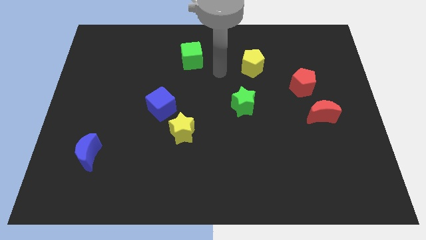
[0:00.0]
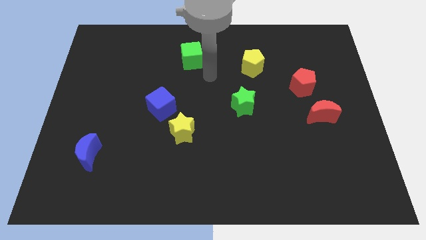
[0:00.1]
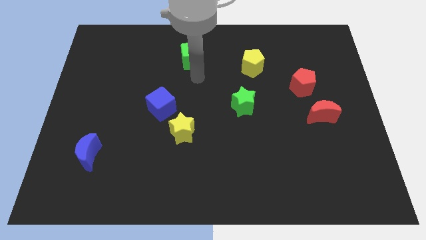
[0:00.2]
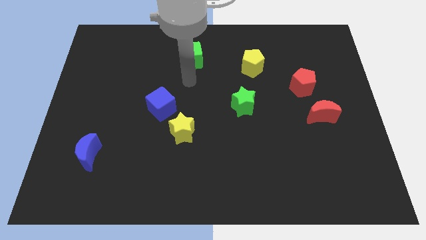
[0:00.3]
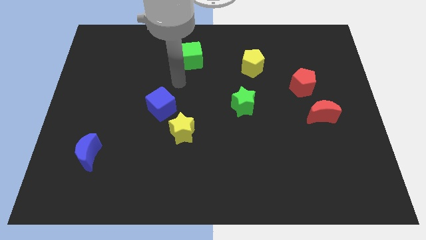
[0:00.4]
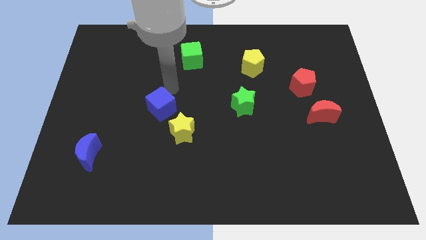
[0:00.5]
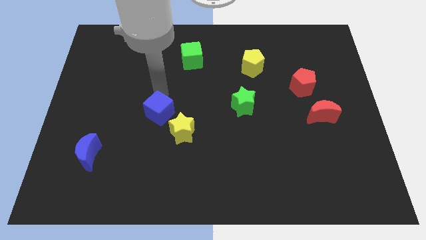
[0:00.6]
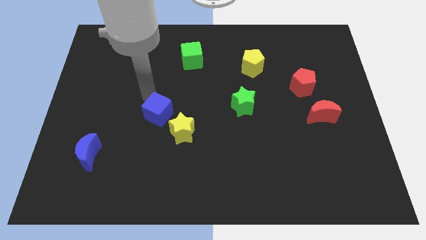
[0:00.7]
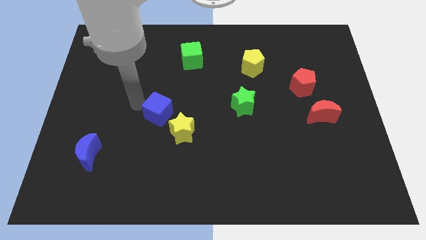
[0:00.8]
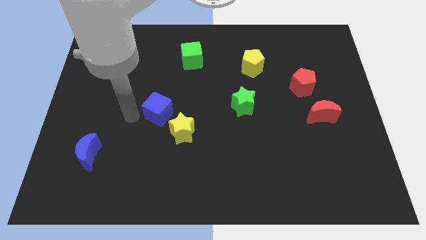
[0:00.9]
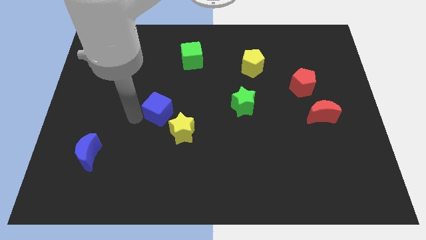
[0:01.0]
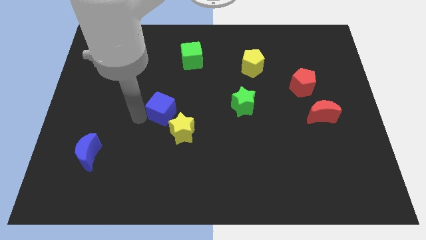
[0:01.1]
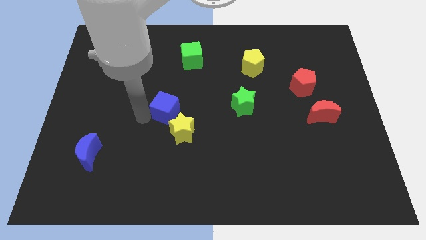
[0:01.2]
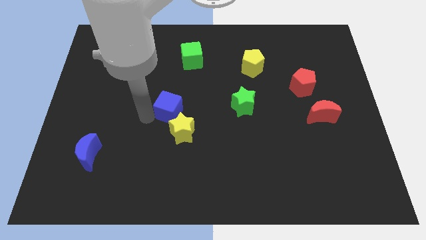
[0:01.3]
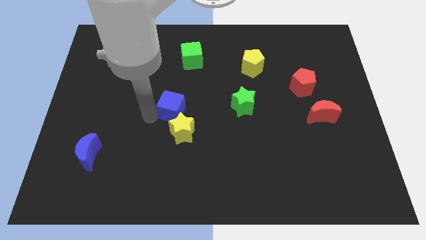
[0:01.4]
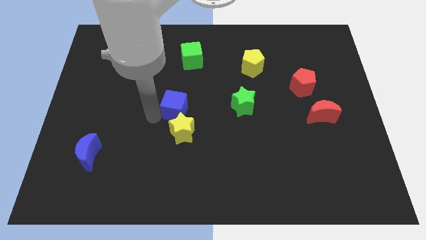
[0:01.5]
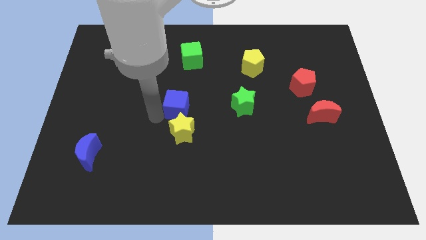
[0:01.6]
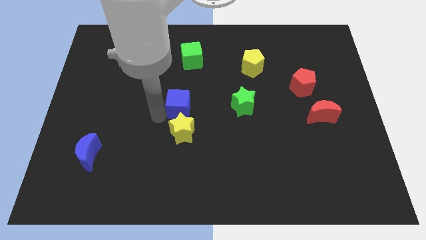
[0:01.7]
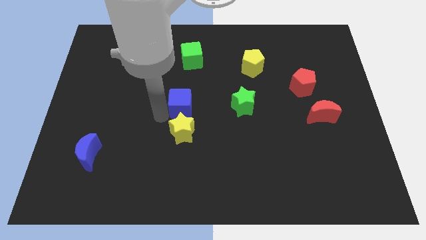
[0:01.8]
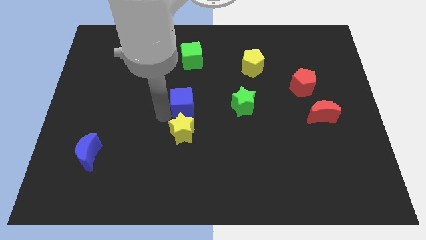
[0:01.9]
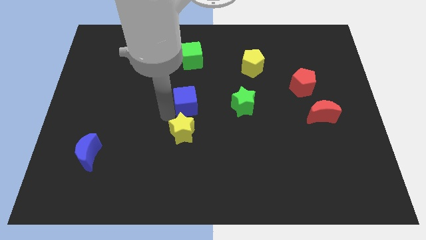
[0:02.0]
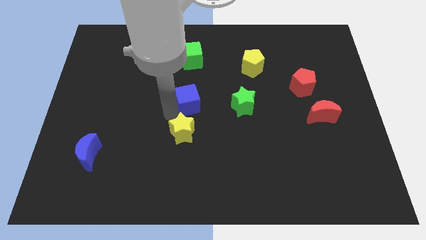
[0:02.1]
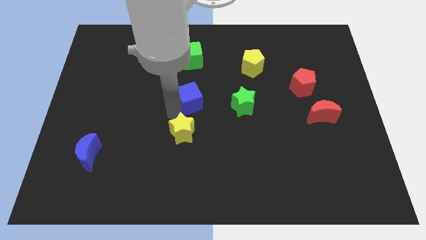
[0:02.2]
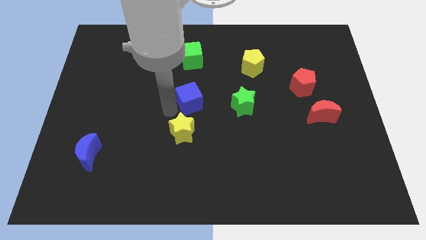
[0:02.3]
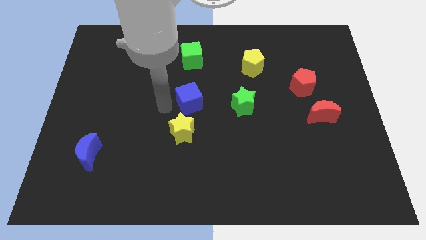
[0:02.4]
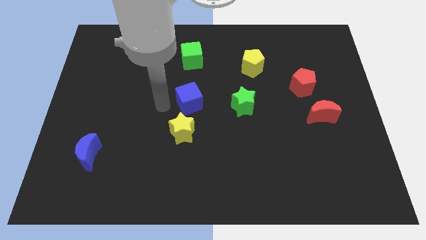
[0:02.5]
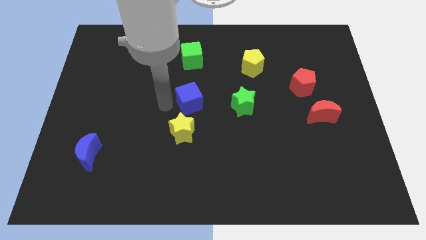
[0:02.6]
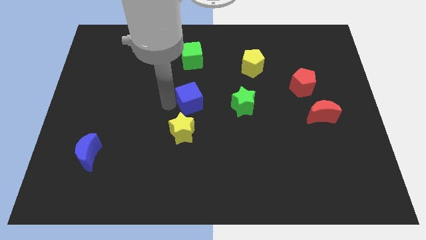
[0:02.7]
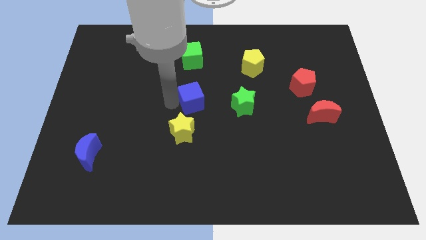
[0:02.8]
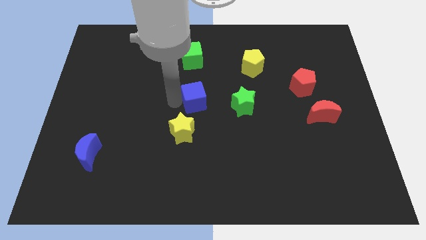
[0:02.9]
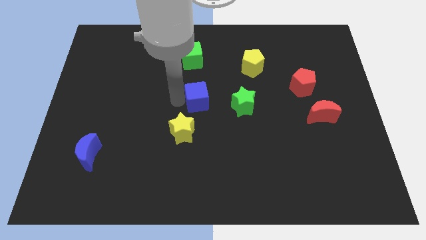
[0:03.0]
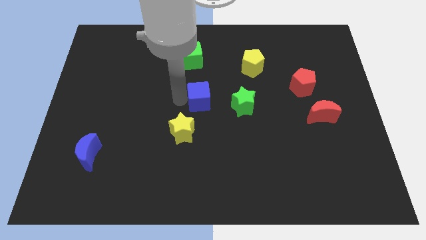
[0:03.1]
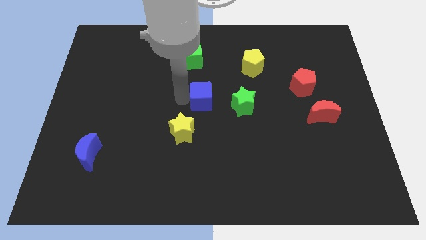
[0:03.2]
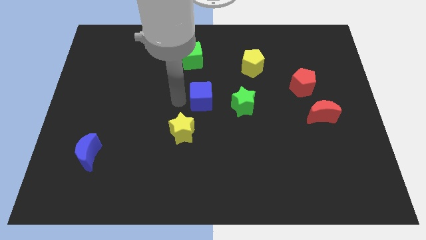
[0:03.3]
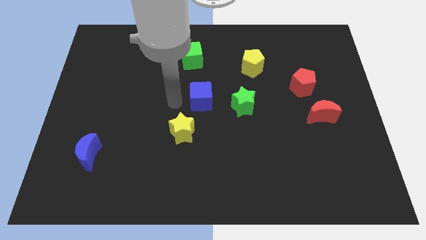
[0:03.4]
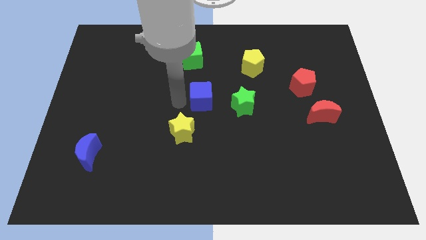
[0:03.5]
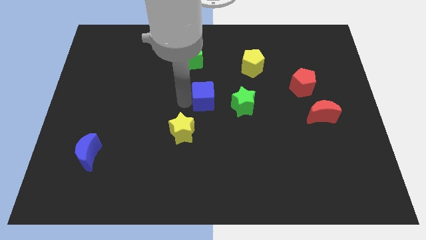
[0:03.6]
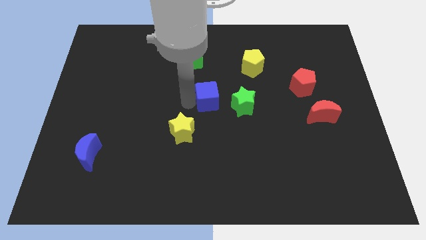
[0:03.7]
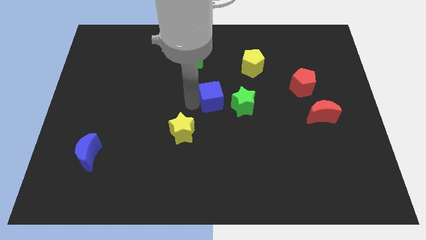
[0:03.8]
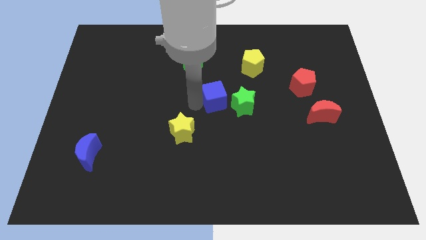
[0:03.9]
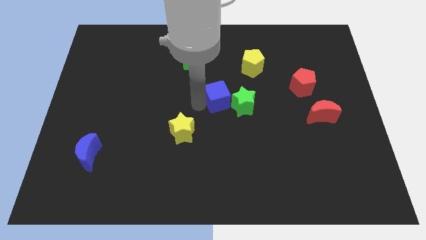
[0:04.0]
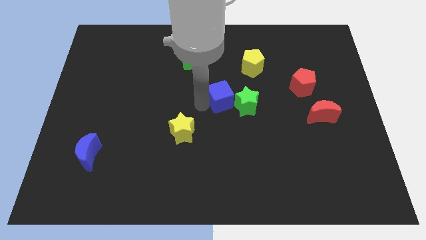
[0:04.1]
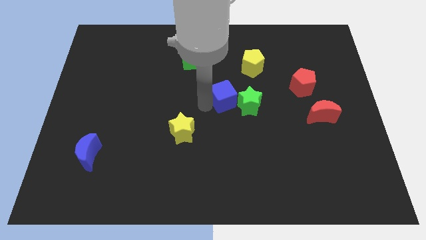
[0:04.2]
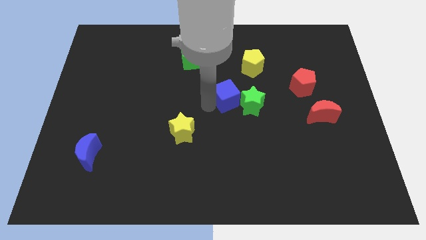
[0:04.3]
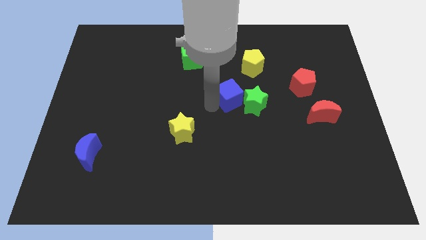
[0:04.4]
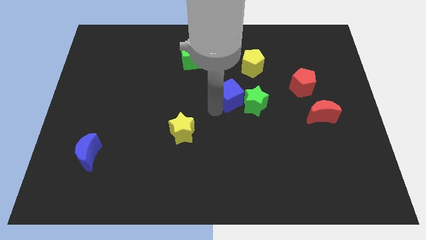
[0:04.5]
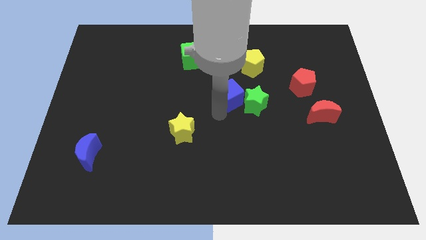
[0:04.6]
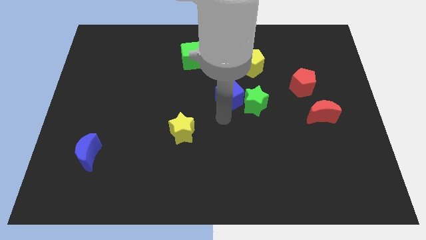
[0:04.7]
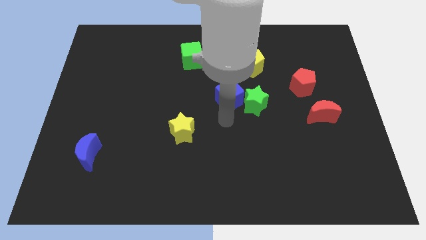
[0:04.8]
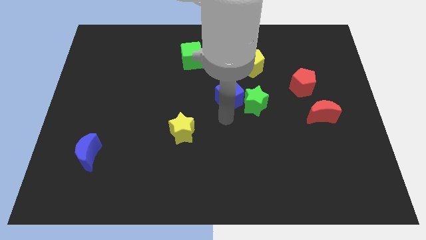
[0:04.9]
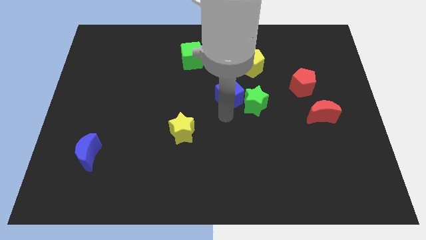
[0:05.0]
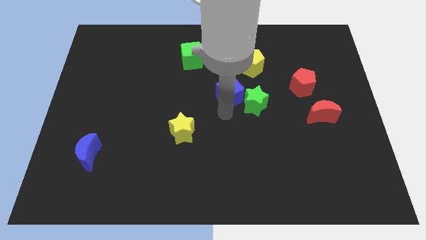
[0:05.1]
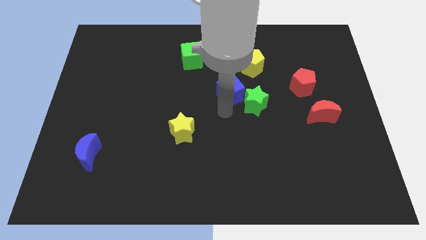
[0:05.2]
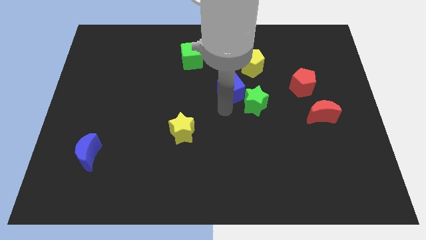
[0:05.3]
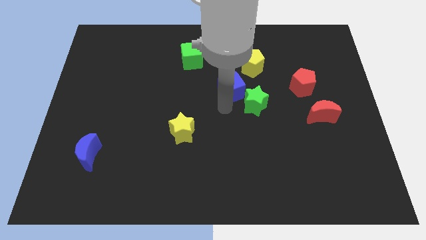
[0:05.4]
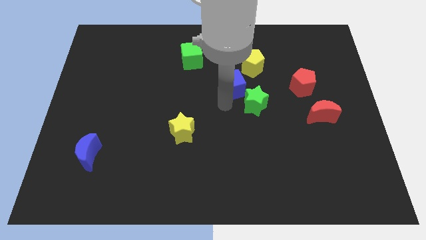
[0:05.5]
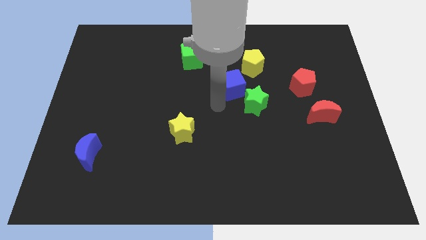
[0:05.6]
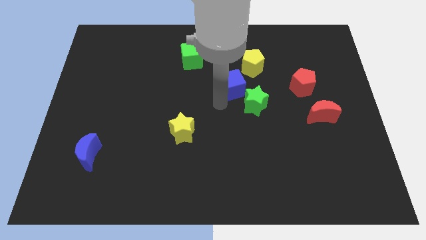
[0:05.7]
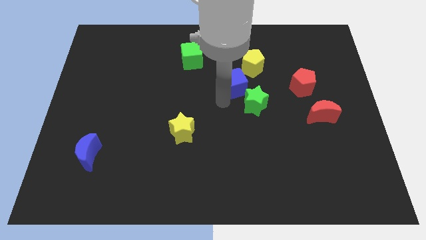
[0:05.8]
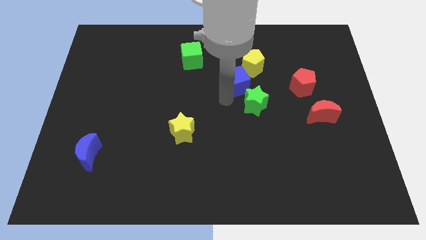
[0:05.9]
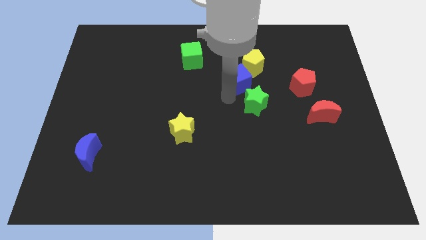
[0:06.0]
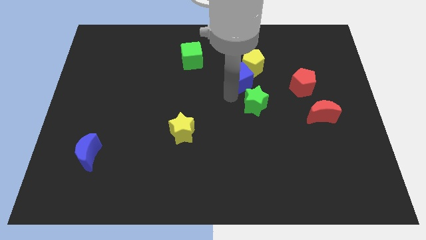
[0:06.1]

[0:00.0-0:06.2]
put the blue cube next to the yellow pentagon

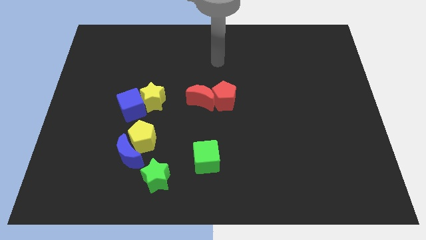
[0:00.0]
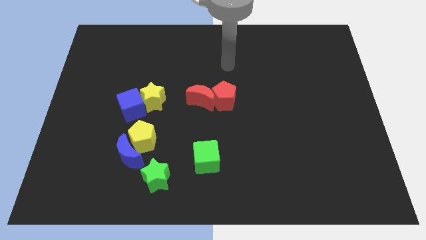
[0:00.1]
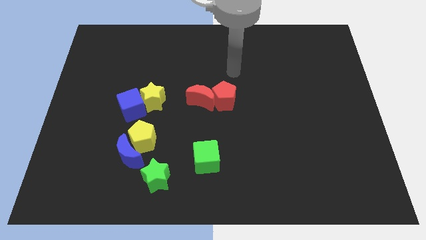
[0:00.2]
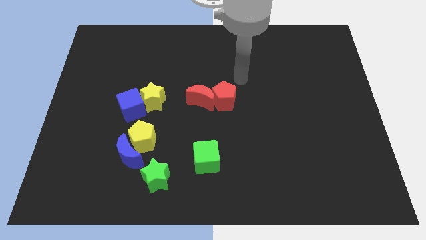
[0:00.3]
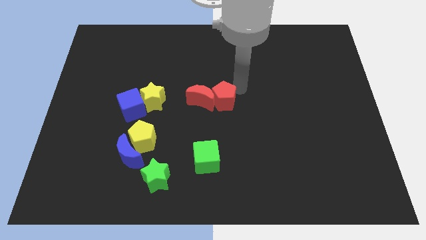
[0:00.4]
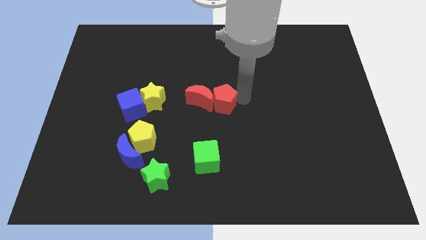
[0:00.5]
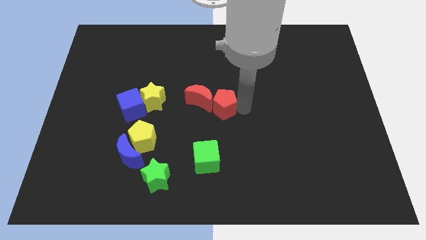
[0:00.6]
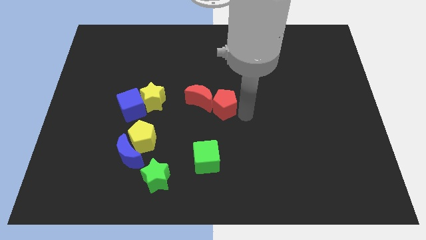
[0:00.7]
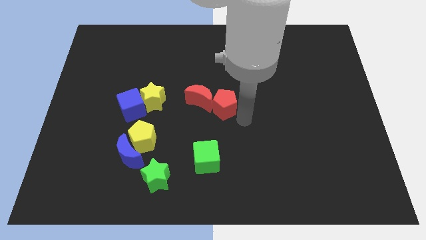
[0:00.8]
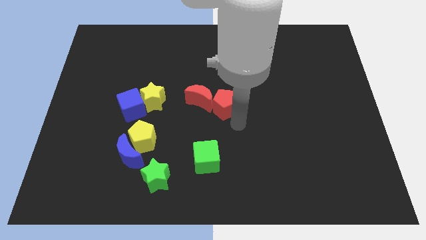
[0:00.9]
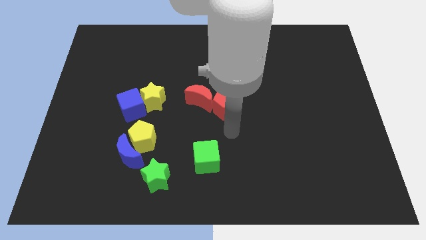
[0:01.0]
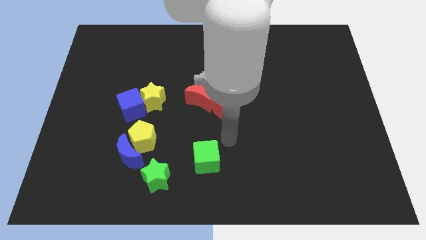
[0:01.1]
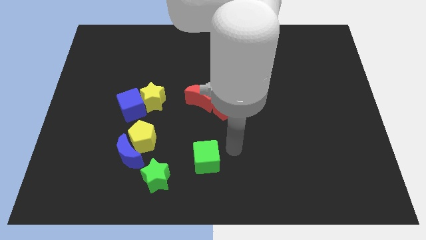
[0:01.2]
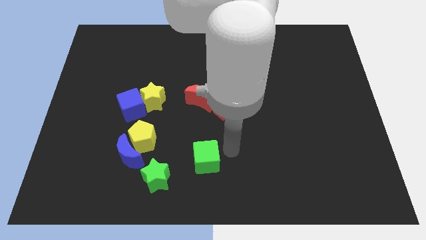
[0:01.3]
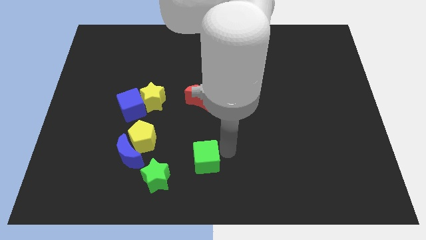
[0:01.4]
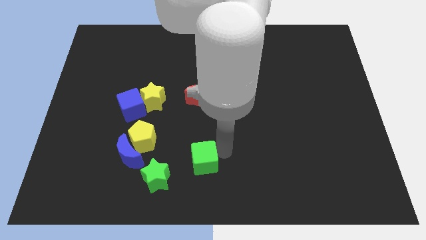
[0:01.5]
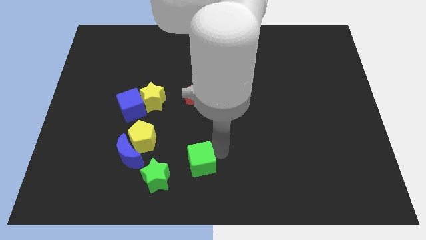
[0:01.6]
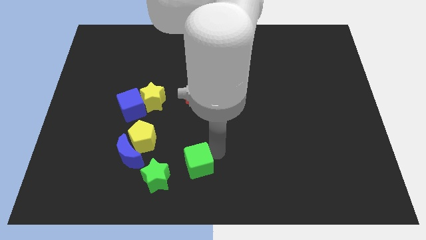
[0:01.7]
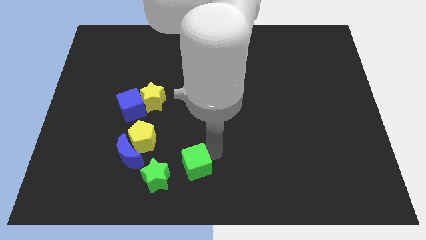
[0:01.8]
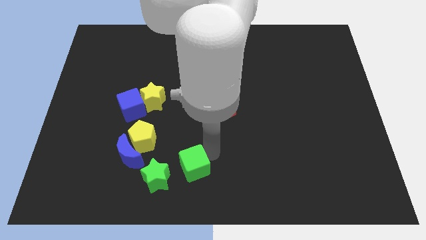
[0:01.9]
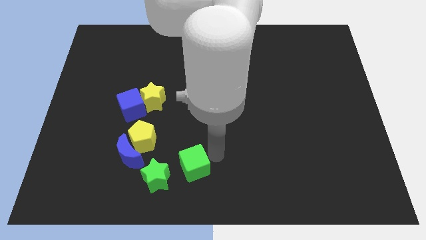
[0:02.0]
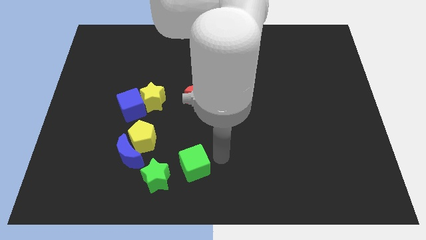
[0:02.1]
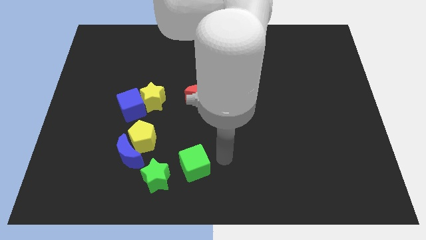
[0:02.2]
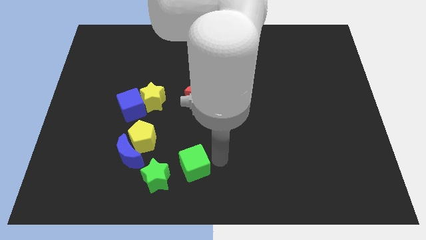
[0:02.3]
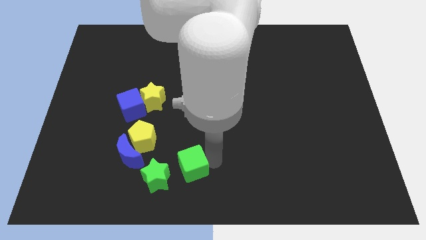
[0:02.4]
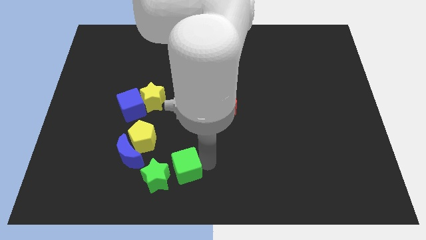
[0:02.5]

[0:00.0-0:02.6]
push the green cube close to the green star
